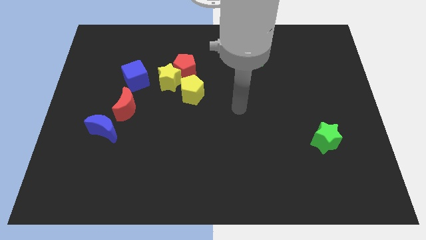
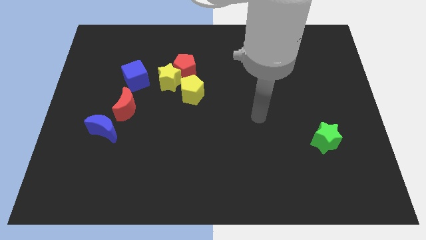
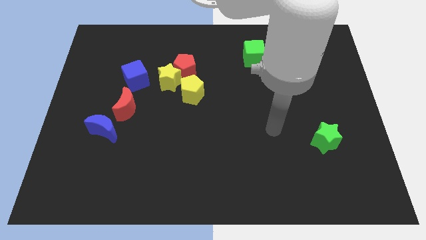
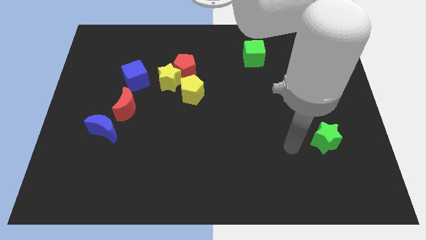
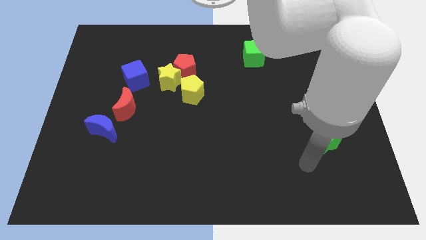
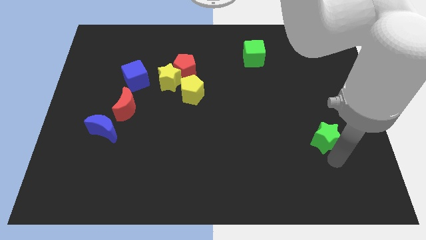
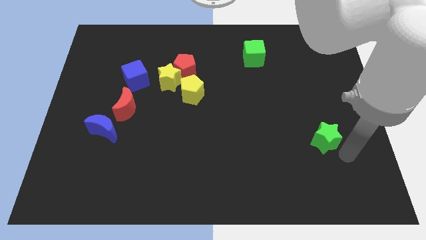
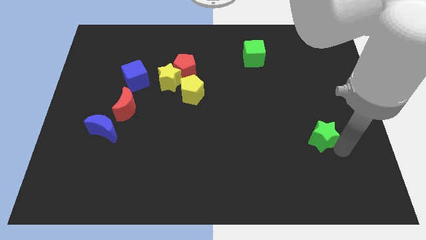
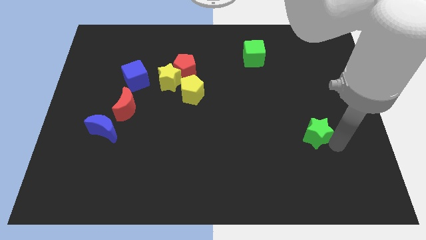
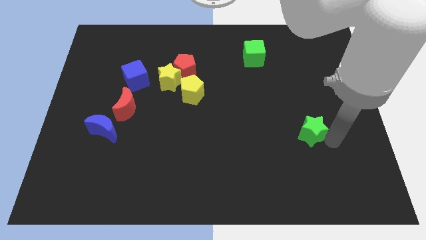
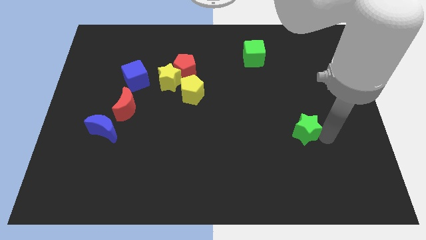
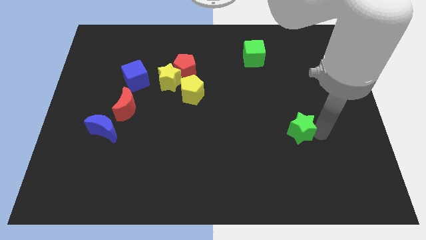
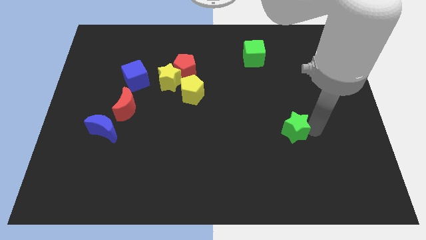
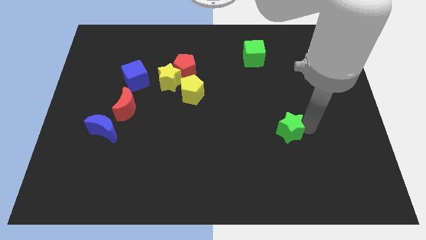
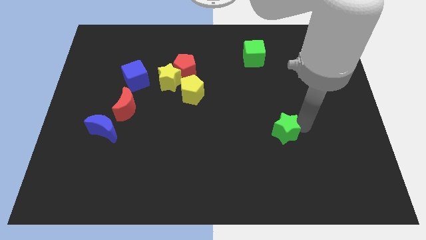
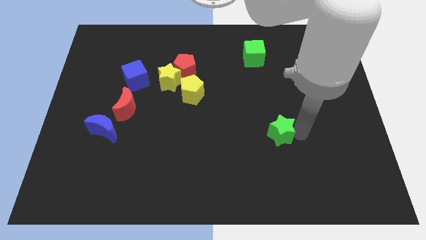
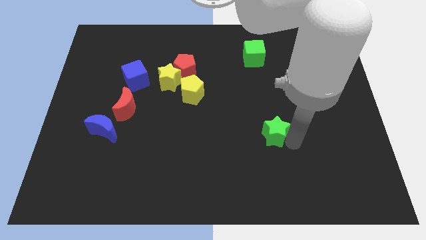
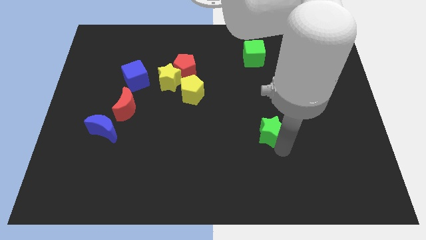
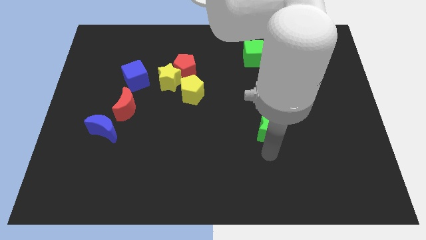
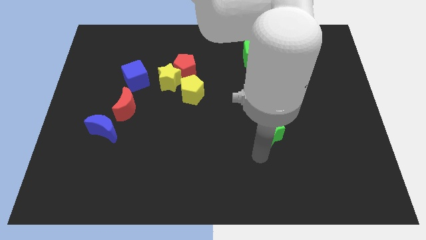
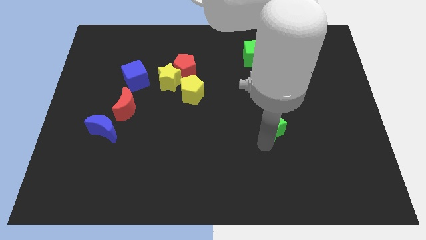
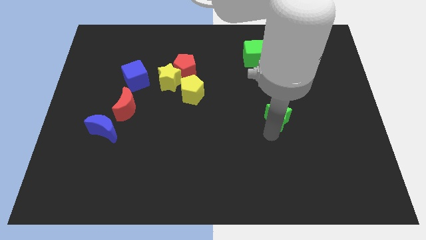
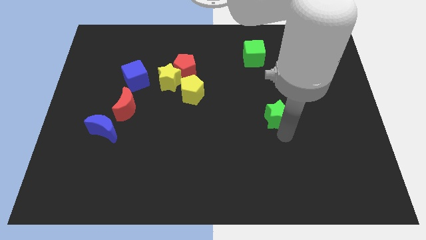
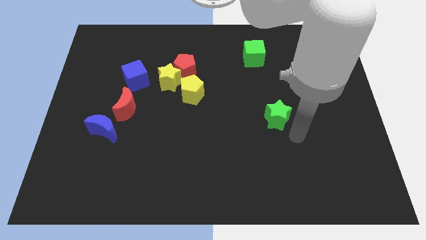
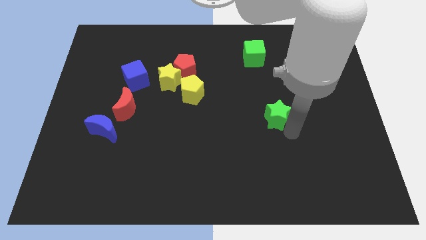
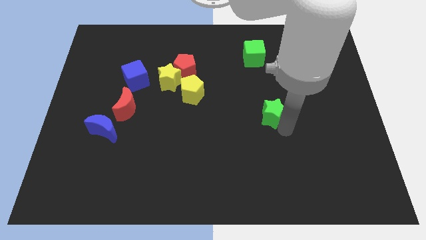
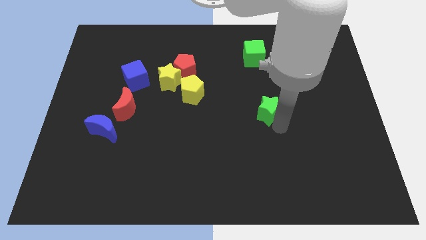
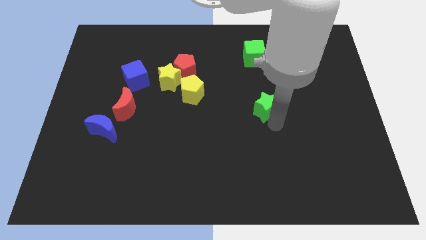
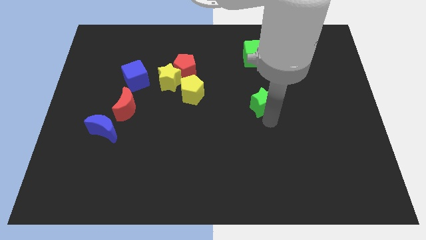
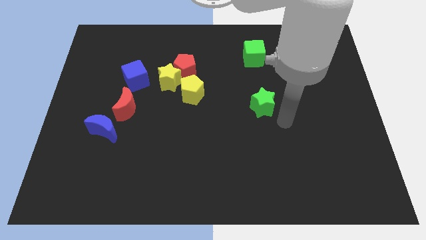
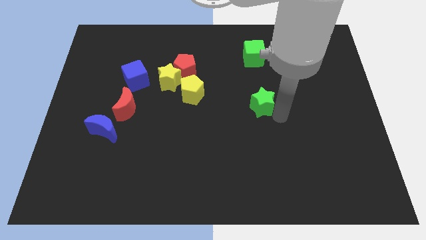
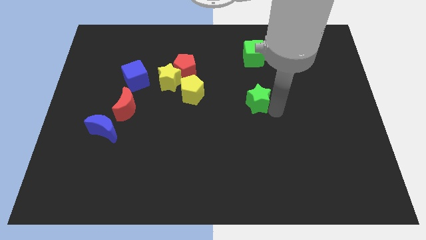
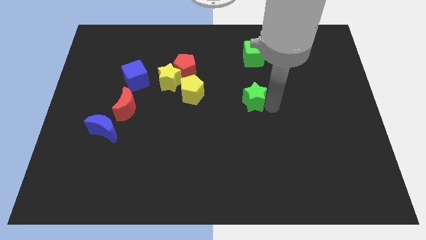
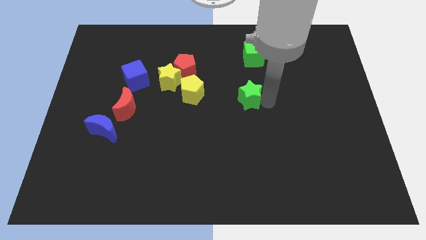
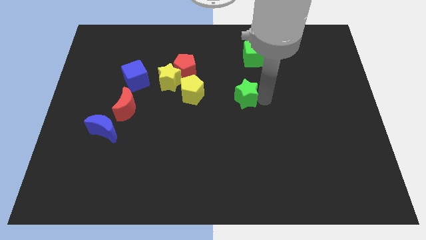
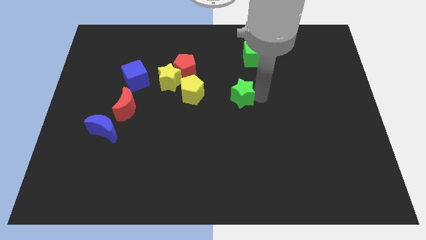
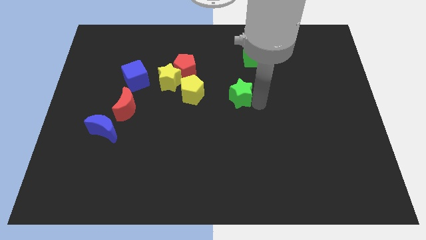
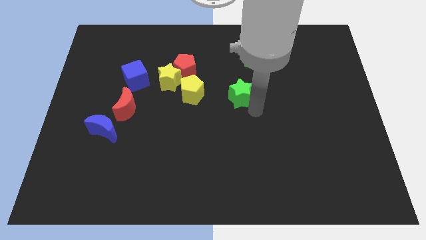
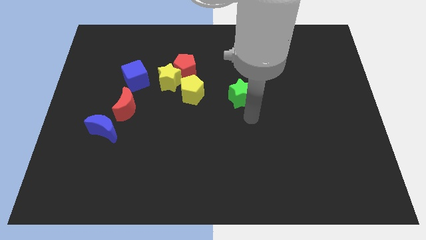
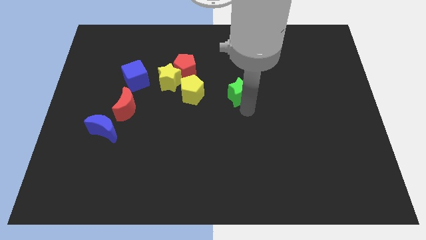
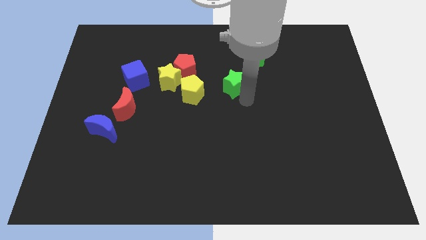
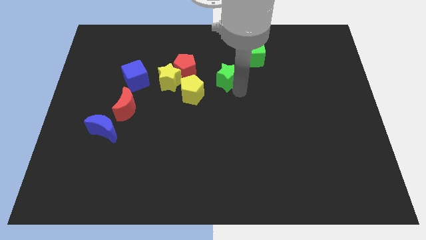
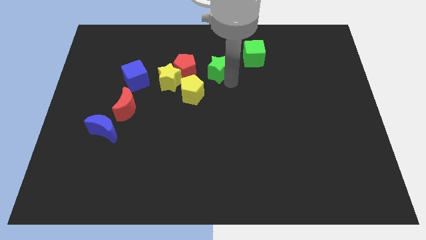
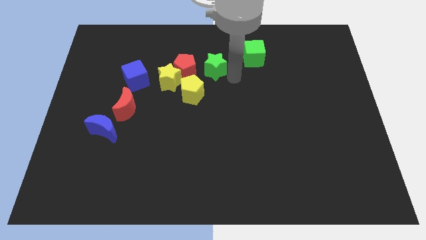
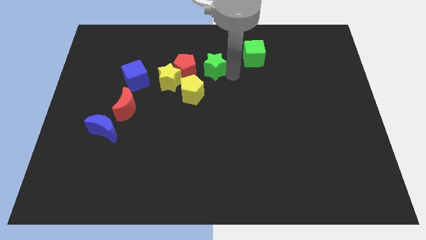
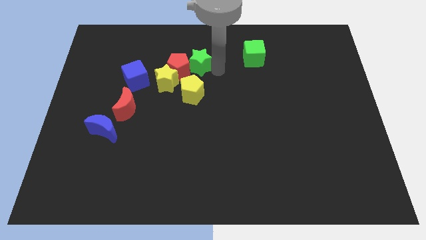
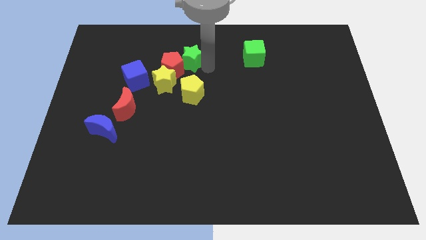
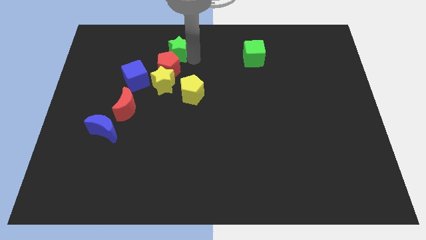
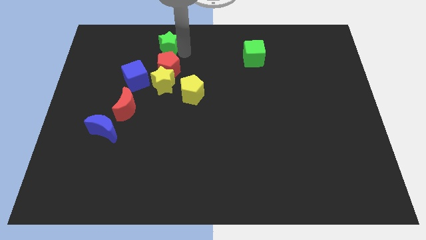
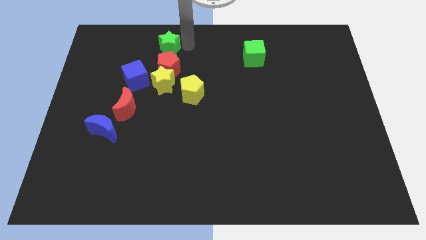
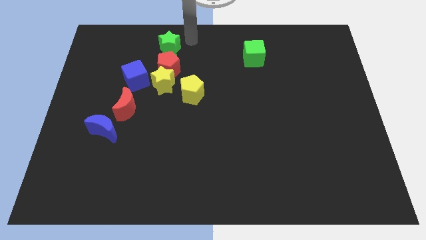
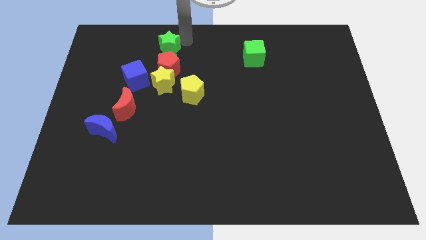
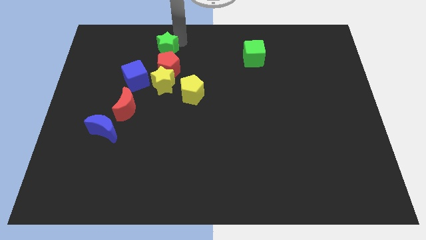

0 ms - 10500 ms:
move the green star to the top left side of the red pentagon

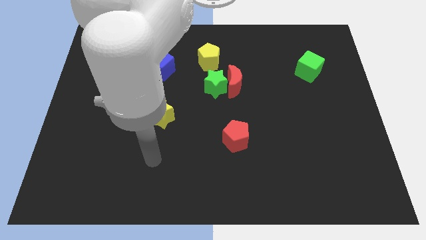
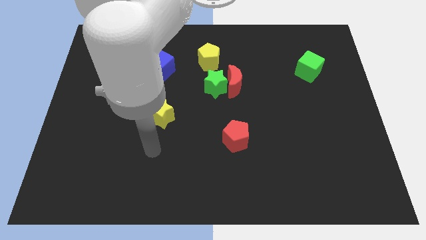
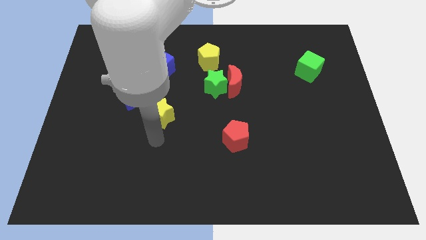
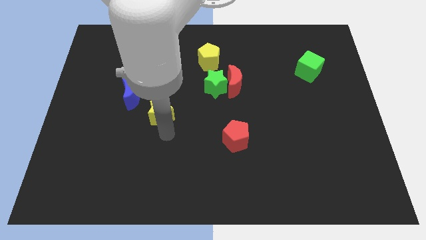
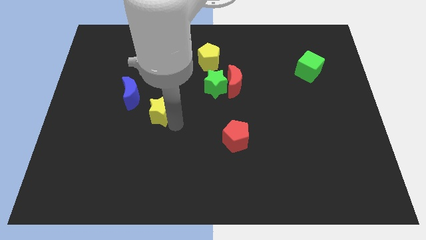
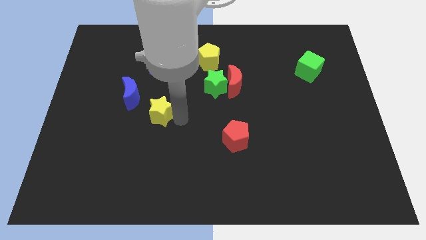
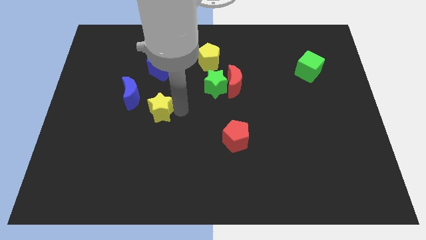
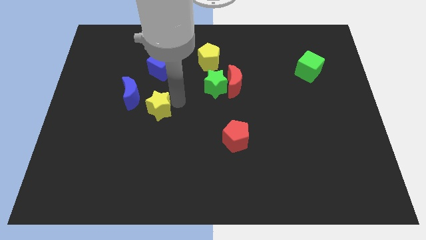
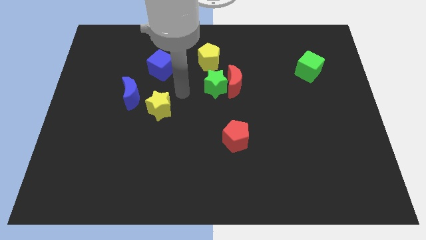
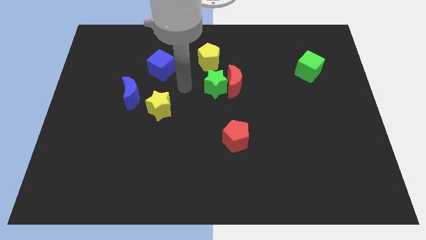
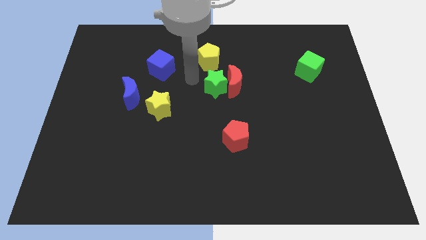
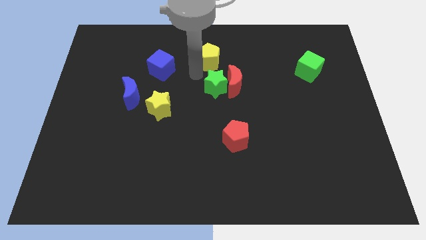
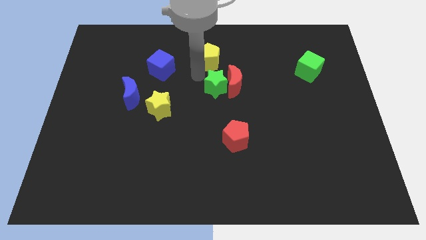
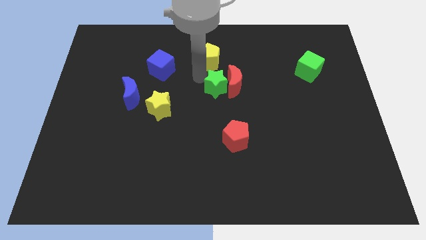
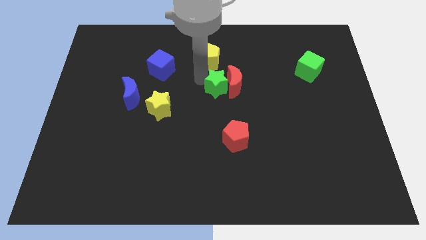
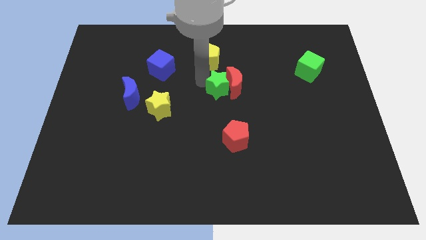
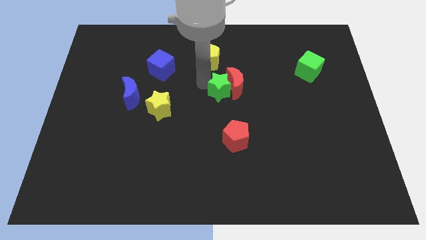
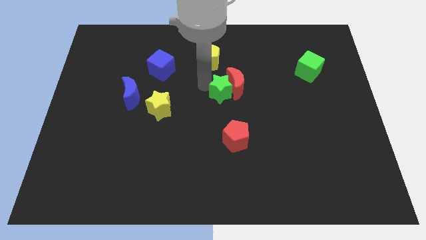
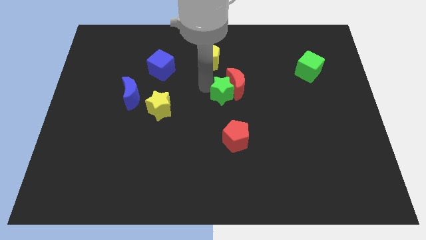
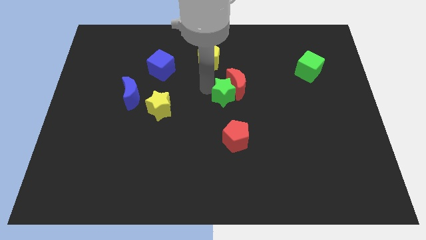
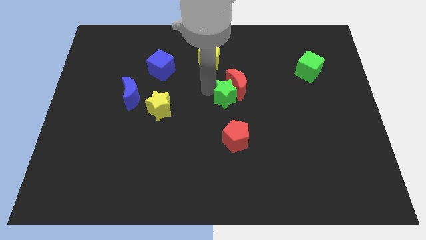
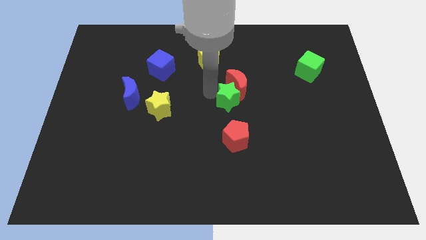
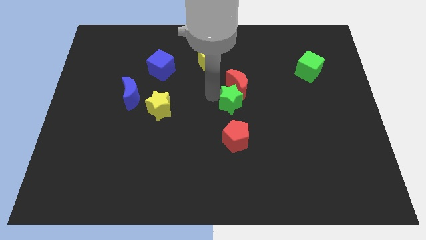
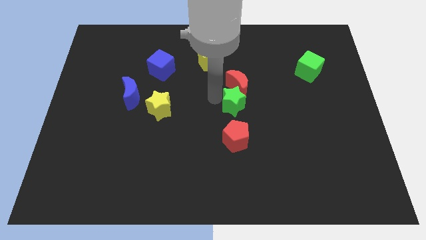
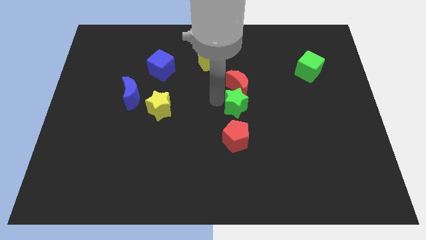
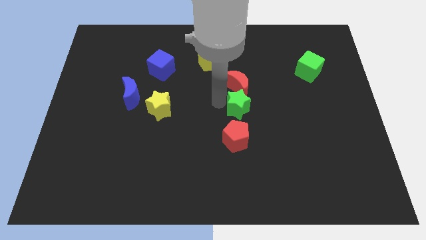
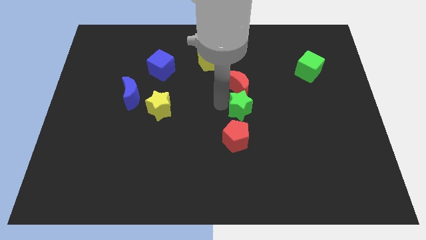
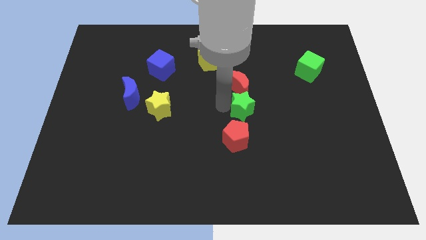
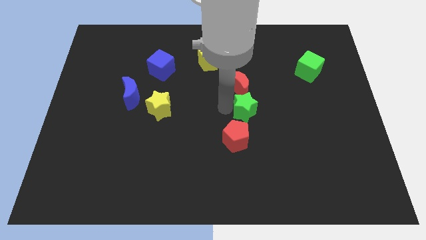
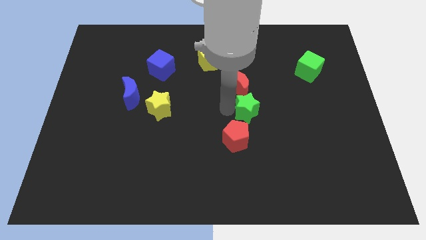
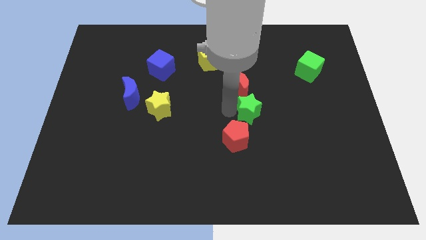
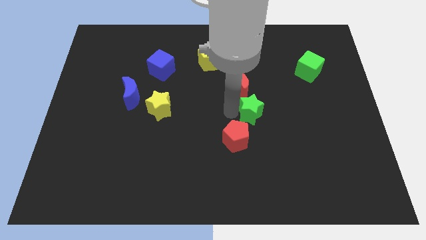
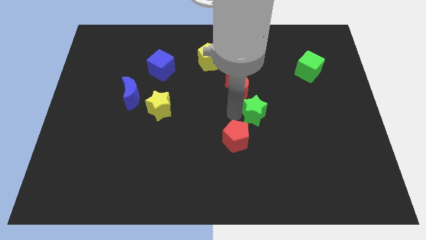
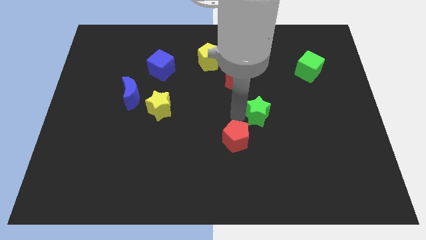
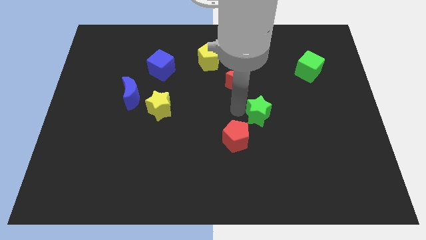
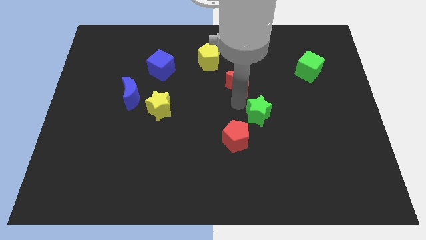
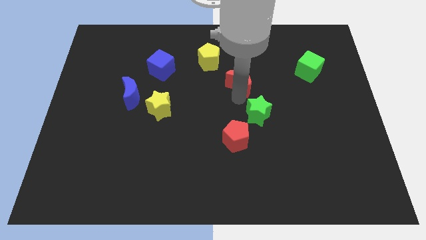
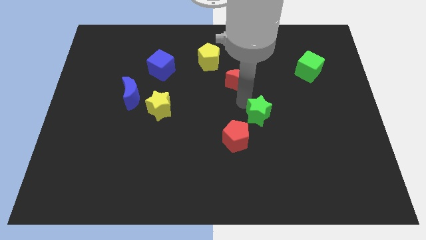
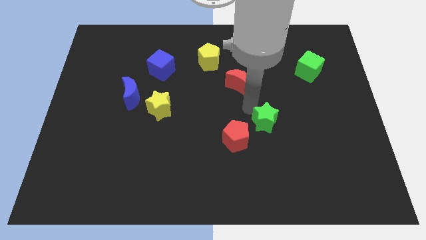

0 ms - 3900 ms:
push the green star right of the red pentagon
